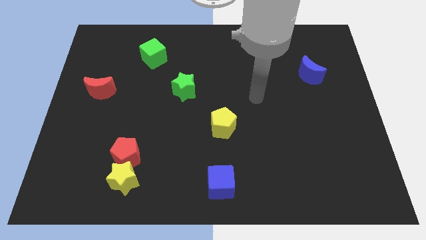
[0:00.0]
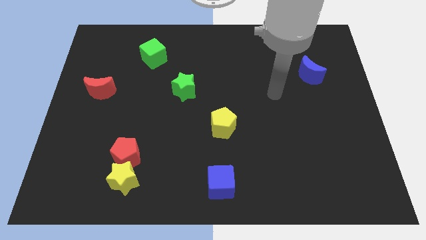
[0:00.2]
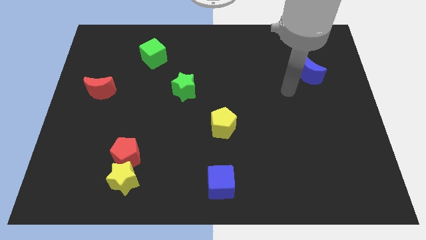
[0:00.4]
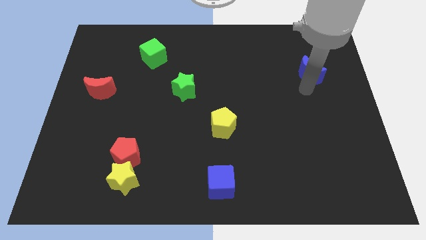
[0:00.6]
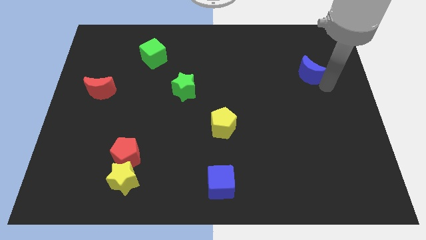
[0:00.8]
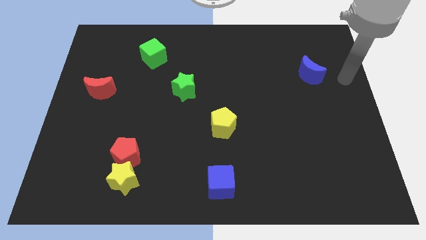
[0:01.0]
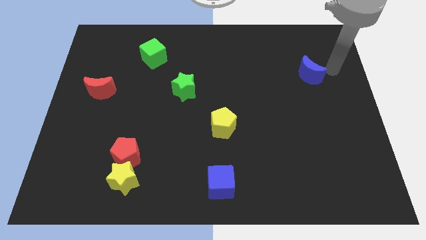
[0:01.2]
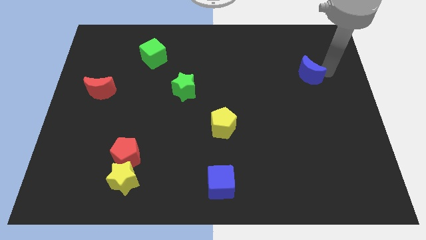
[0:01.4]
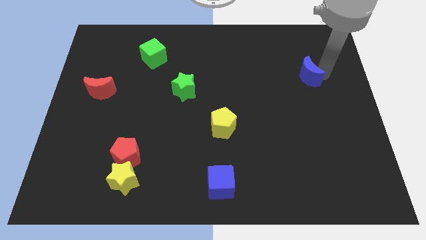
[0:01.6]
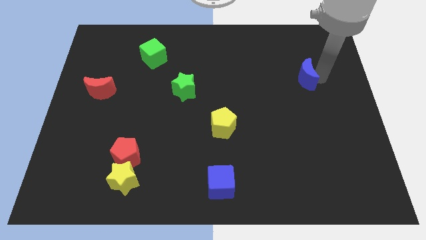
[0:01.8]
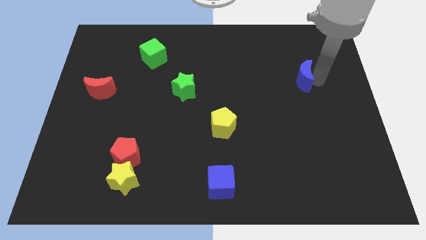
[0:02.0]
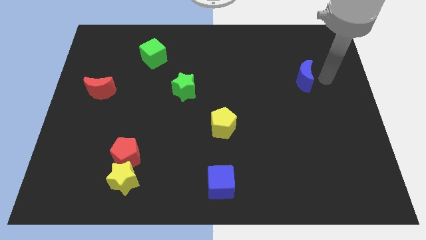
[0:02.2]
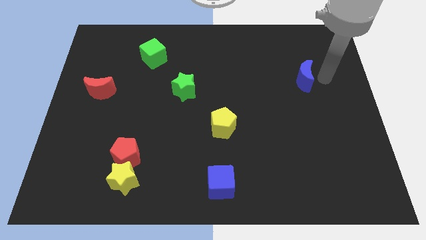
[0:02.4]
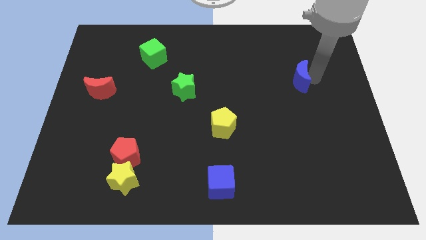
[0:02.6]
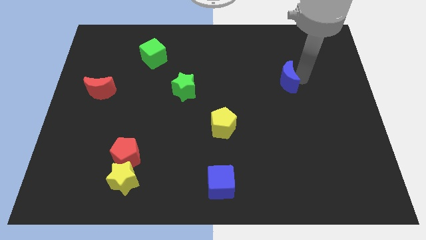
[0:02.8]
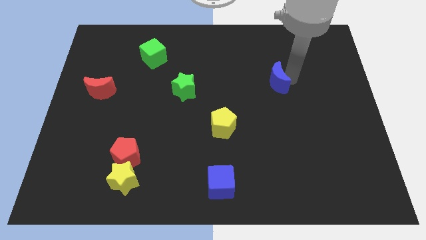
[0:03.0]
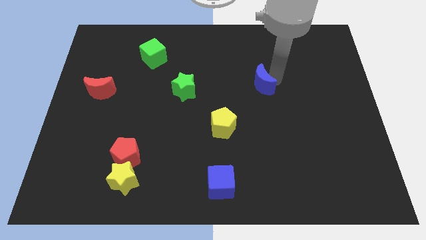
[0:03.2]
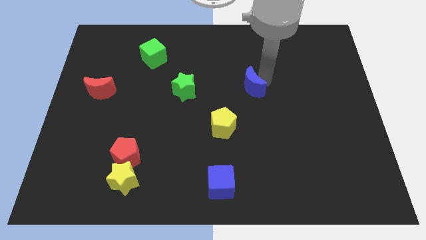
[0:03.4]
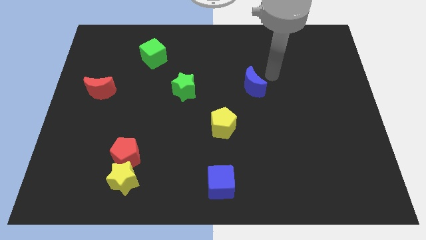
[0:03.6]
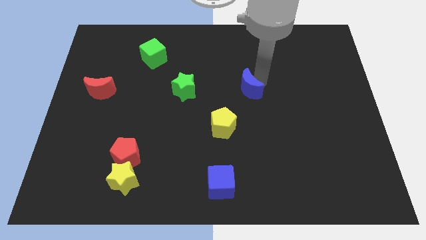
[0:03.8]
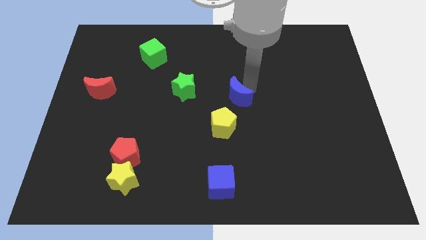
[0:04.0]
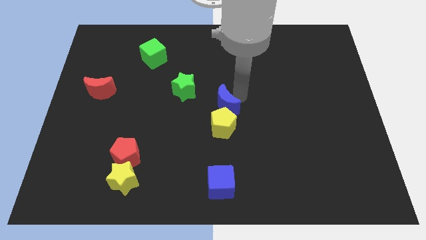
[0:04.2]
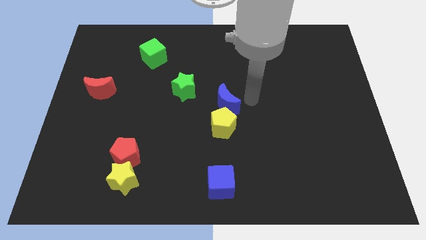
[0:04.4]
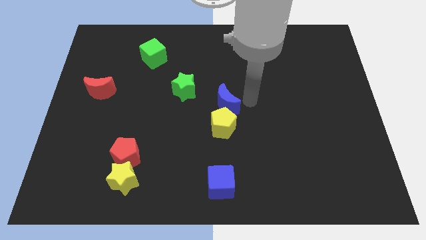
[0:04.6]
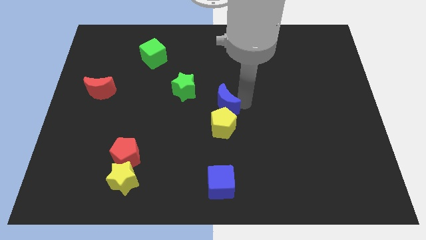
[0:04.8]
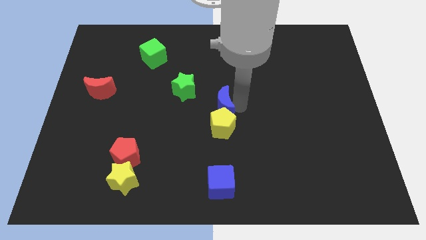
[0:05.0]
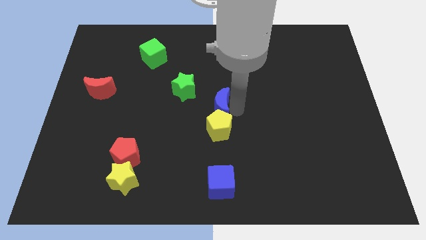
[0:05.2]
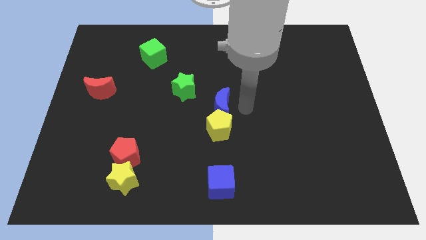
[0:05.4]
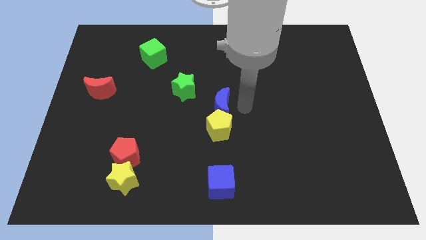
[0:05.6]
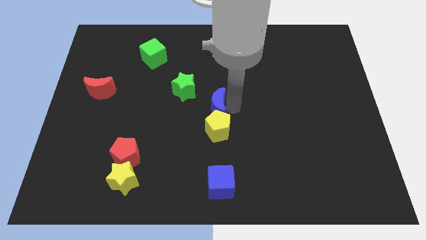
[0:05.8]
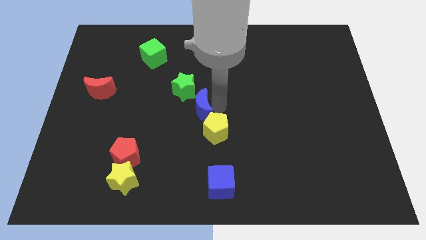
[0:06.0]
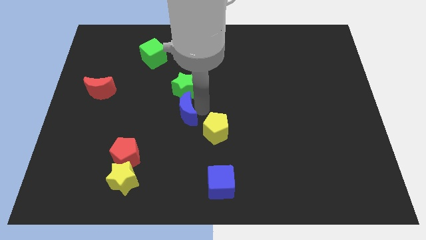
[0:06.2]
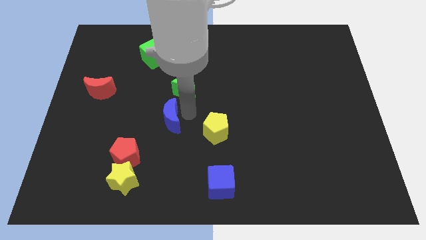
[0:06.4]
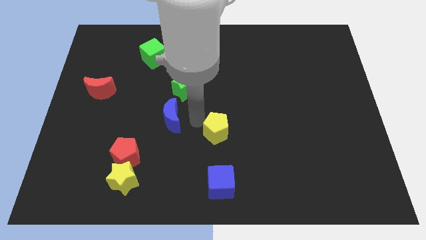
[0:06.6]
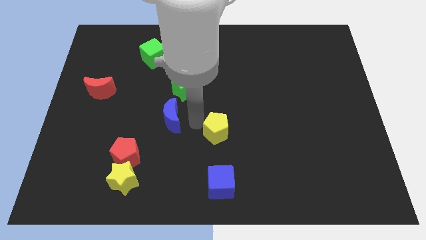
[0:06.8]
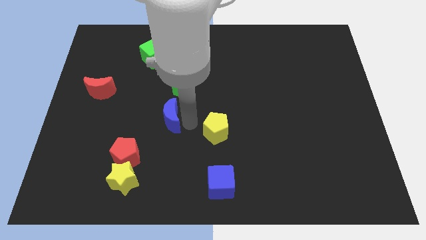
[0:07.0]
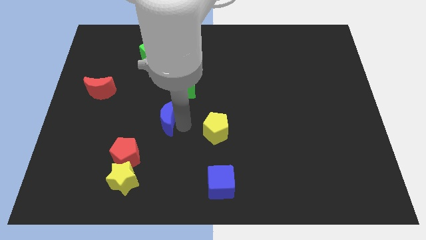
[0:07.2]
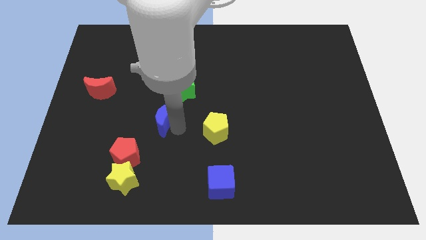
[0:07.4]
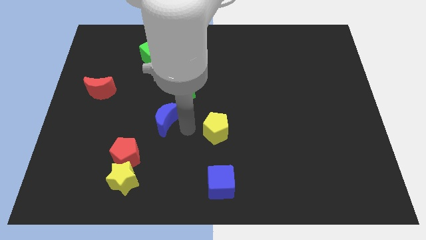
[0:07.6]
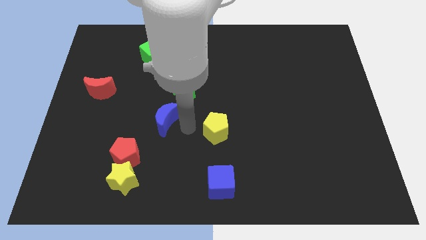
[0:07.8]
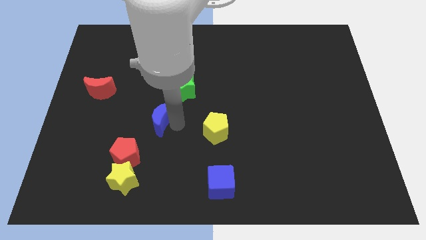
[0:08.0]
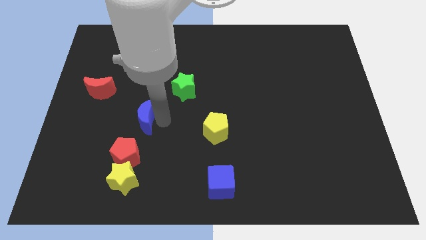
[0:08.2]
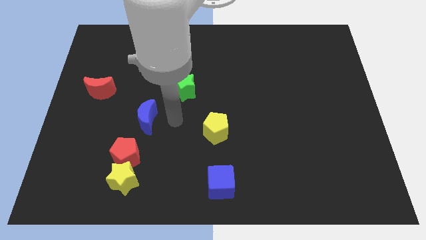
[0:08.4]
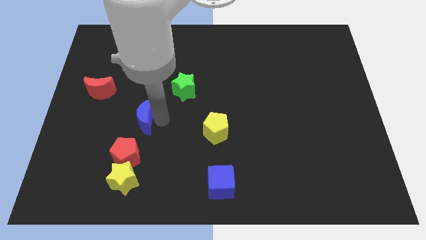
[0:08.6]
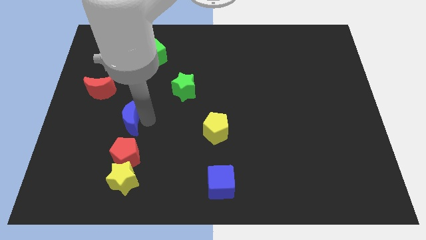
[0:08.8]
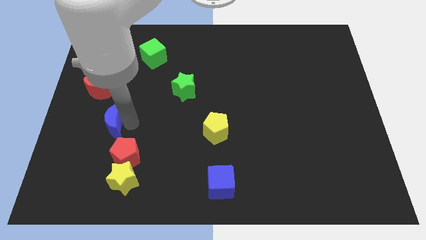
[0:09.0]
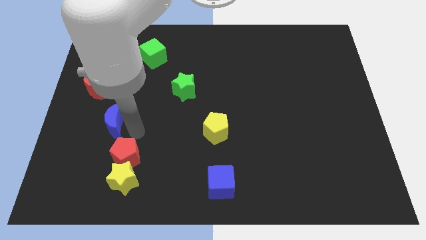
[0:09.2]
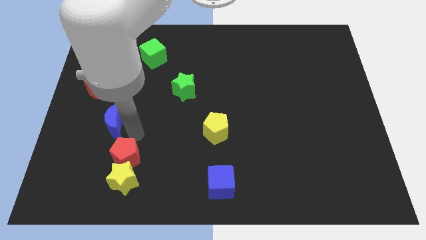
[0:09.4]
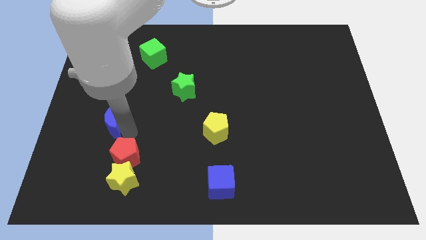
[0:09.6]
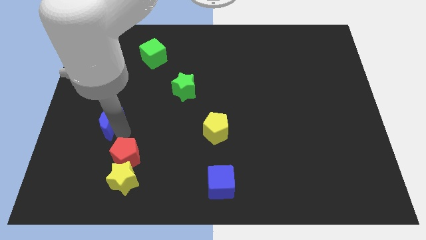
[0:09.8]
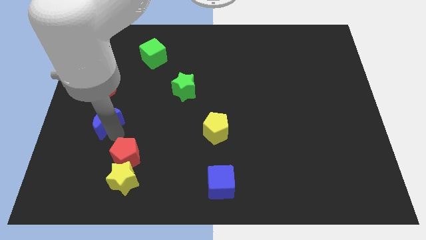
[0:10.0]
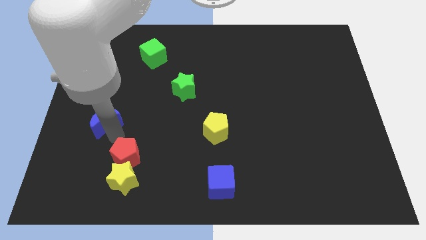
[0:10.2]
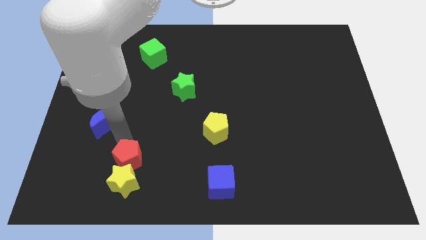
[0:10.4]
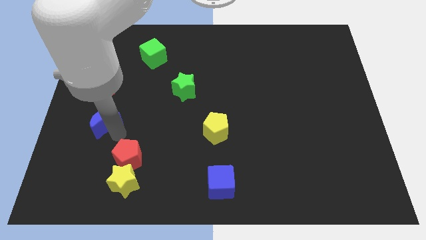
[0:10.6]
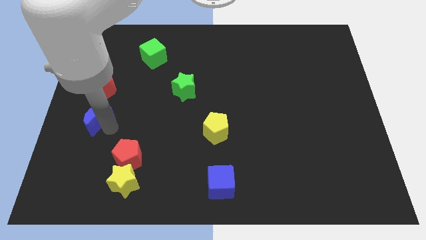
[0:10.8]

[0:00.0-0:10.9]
push the blue moon to the left side of the board

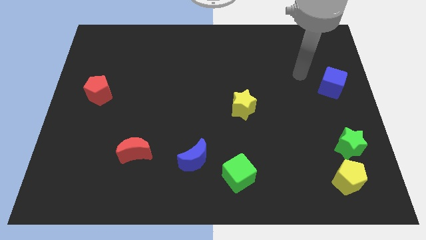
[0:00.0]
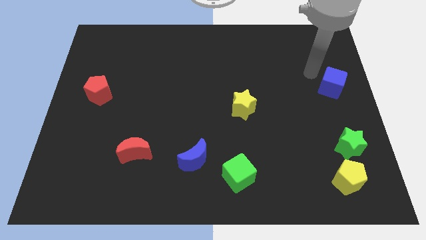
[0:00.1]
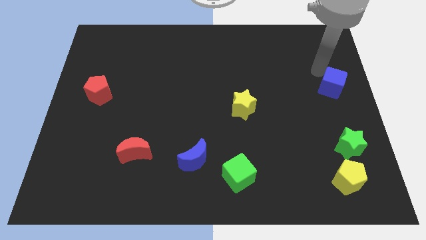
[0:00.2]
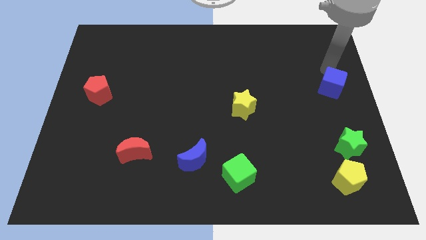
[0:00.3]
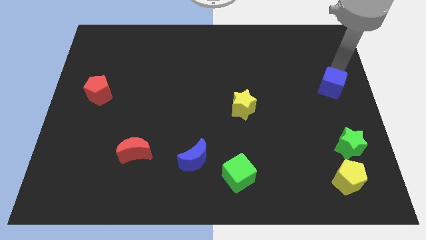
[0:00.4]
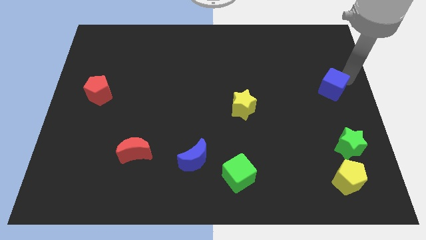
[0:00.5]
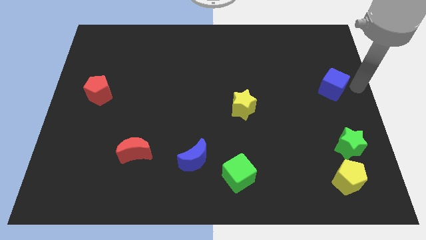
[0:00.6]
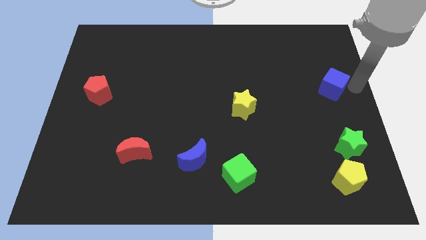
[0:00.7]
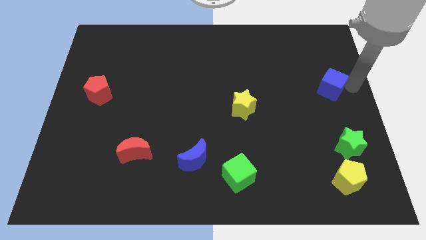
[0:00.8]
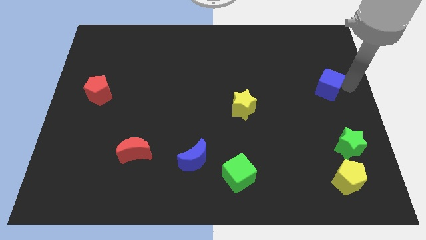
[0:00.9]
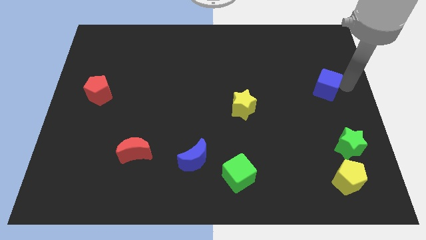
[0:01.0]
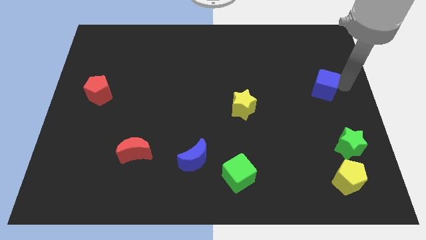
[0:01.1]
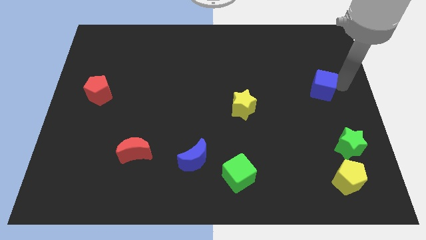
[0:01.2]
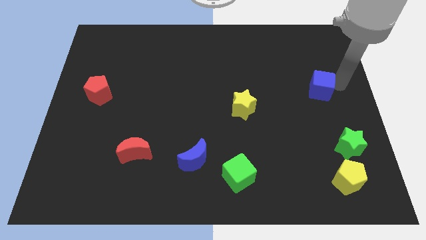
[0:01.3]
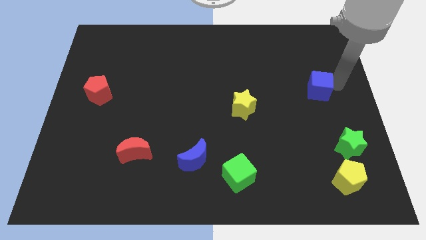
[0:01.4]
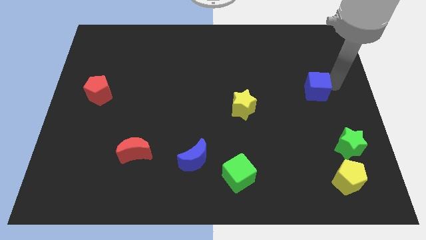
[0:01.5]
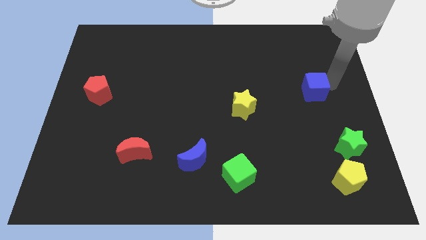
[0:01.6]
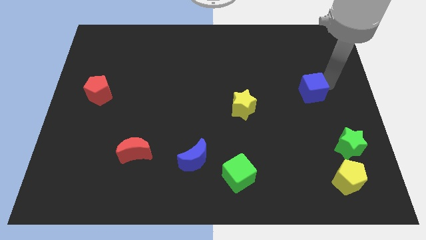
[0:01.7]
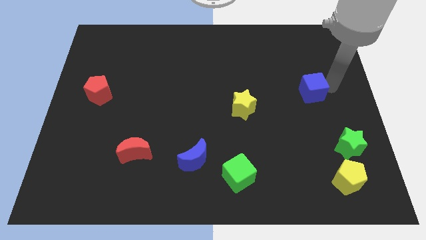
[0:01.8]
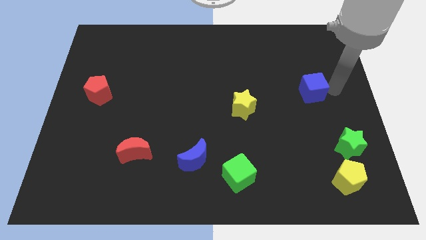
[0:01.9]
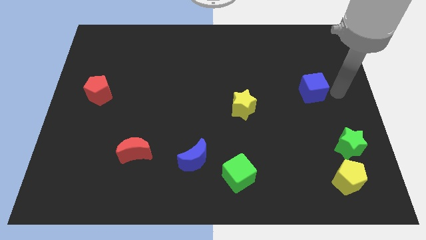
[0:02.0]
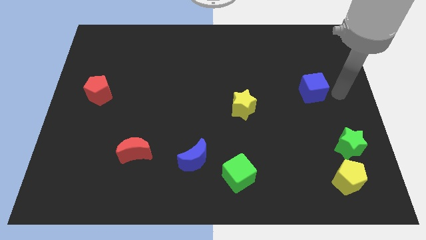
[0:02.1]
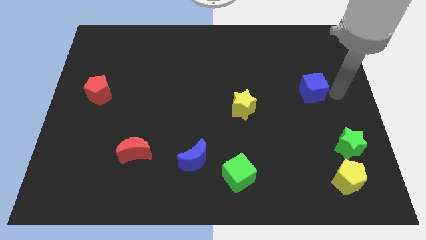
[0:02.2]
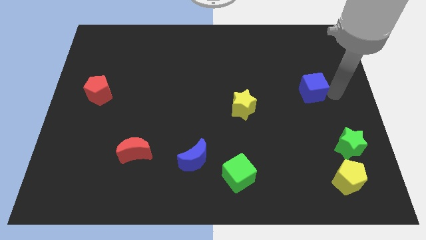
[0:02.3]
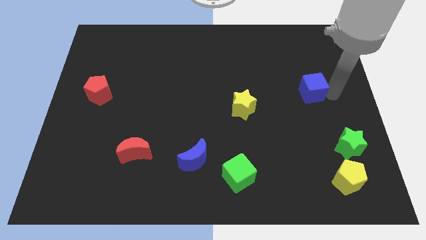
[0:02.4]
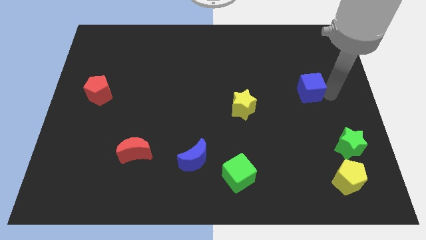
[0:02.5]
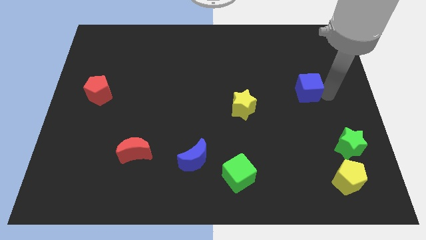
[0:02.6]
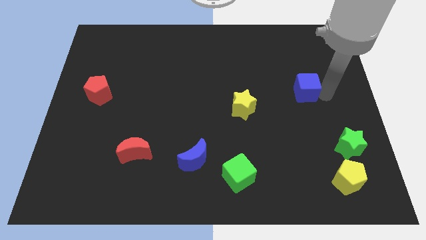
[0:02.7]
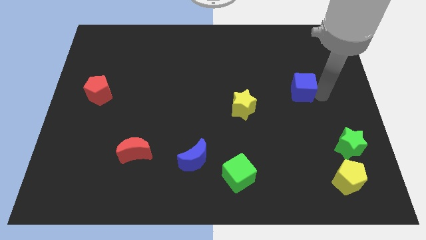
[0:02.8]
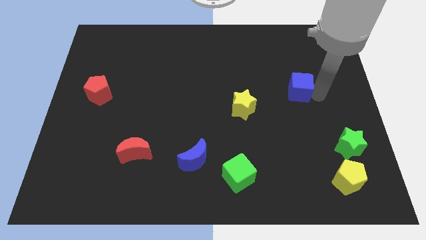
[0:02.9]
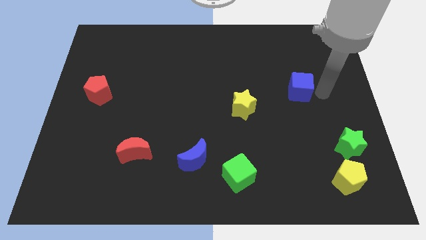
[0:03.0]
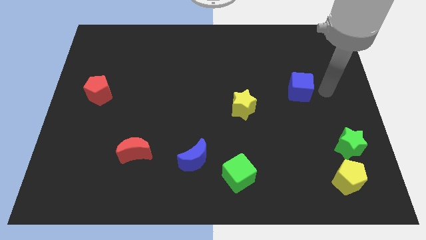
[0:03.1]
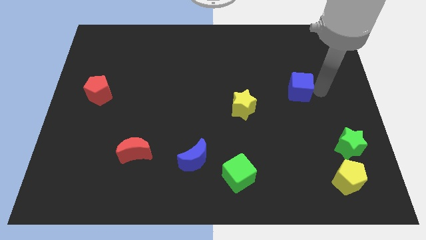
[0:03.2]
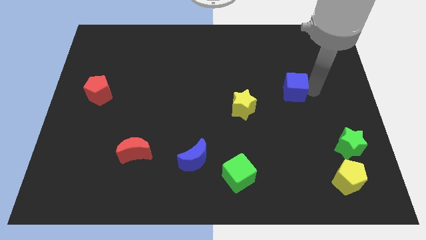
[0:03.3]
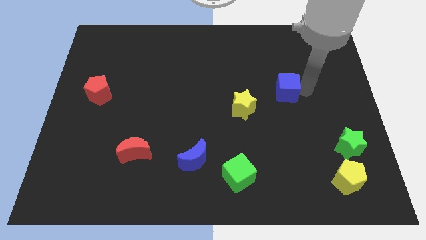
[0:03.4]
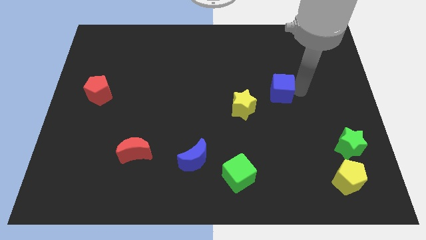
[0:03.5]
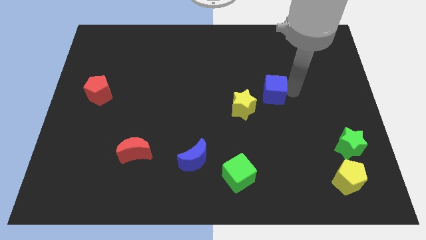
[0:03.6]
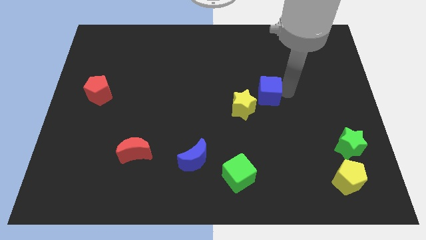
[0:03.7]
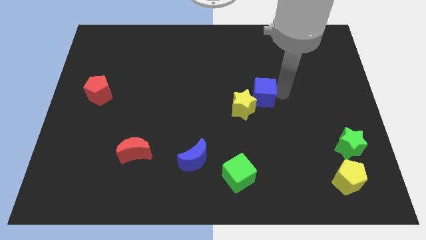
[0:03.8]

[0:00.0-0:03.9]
put the blue cube to the middle
